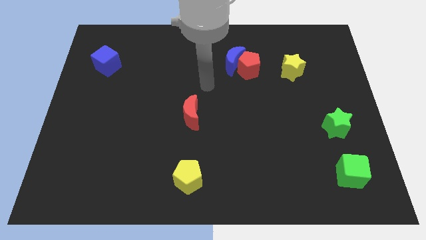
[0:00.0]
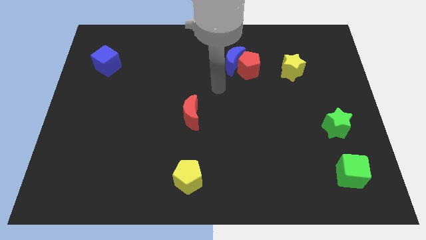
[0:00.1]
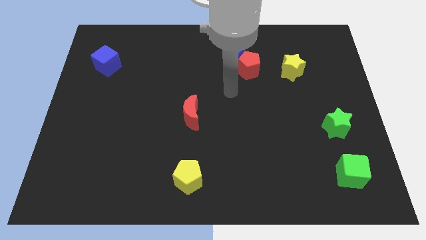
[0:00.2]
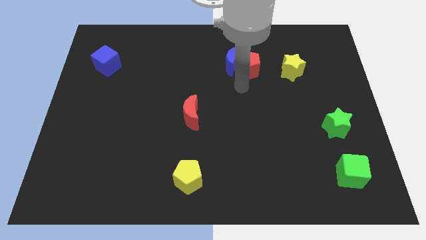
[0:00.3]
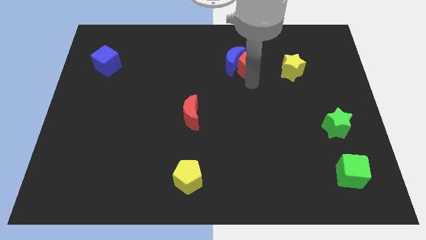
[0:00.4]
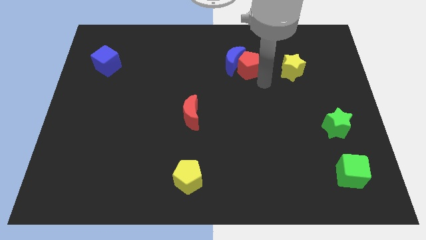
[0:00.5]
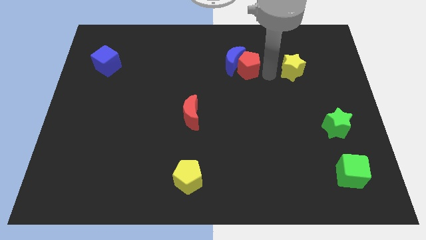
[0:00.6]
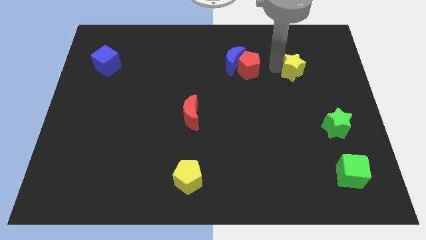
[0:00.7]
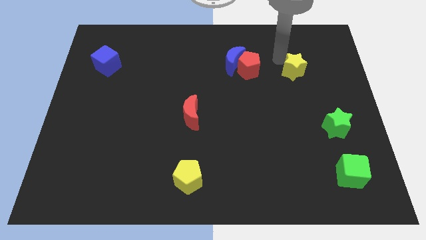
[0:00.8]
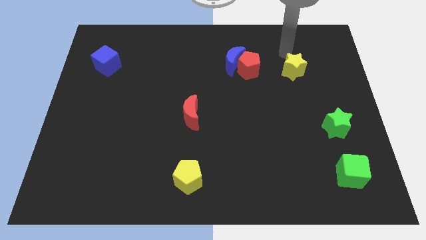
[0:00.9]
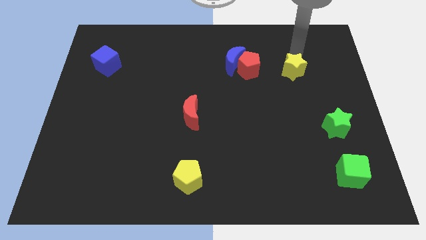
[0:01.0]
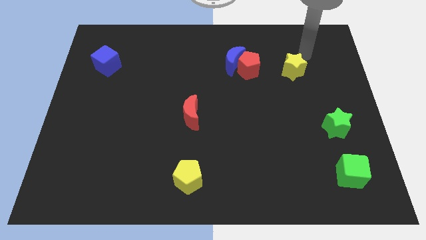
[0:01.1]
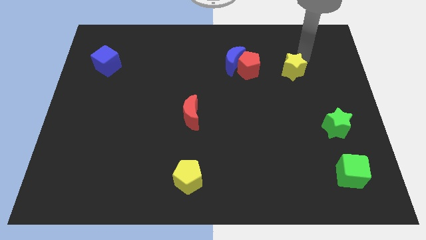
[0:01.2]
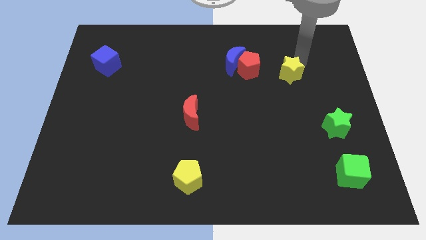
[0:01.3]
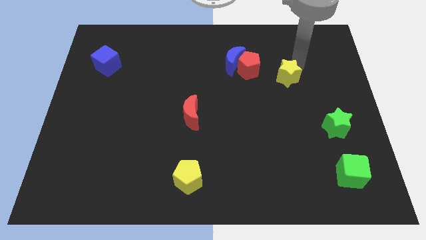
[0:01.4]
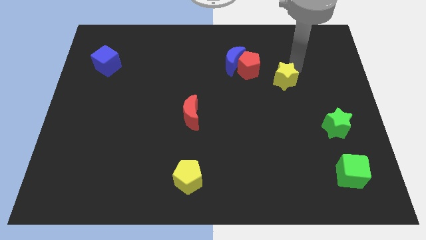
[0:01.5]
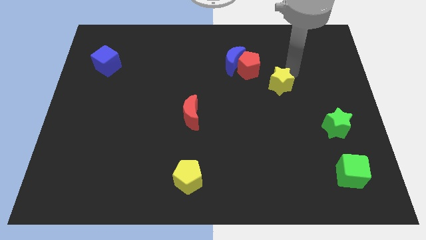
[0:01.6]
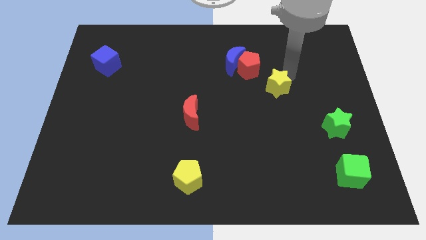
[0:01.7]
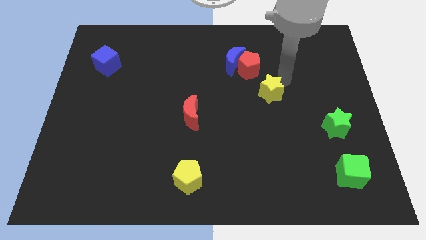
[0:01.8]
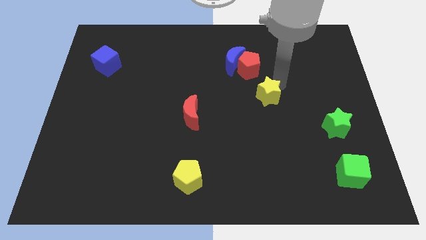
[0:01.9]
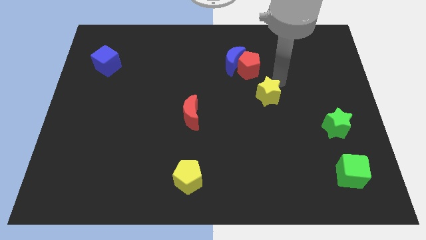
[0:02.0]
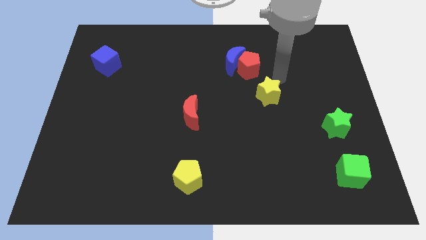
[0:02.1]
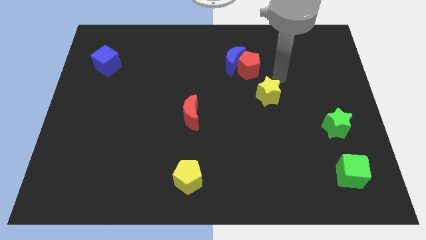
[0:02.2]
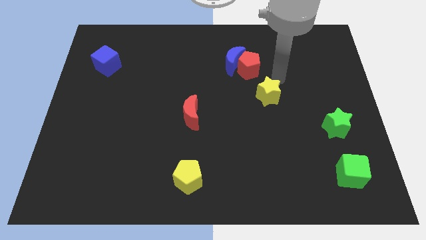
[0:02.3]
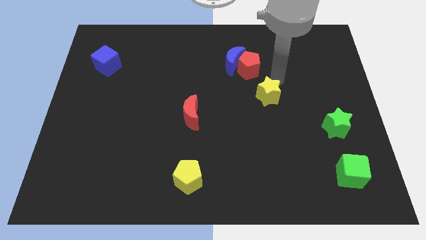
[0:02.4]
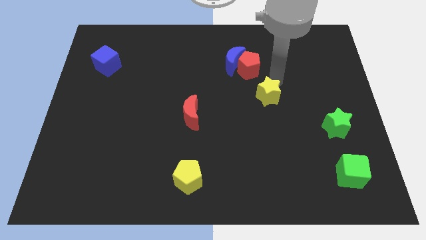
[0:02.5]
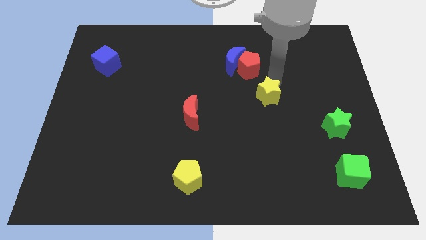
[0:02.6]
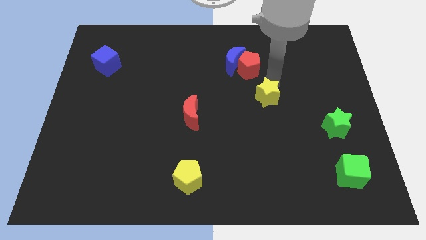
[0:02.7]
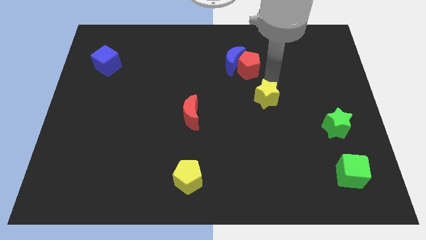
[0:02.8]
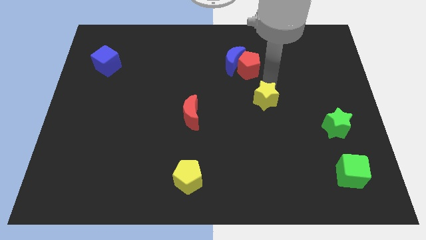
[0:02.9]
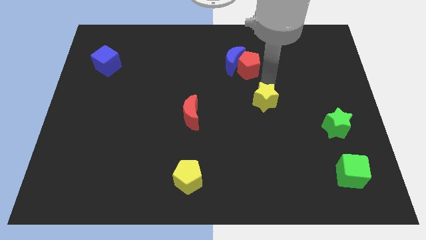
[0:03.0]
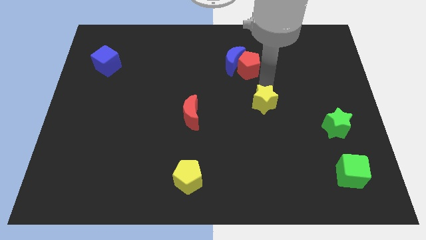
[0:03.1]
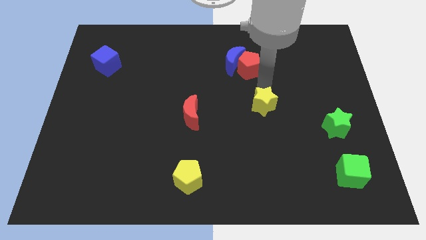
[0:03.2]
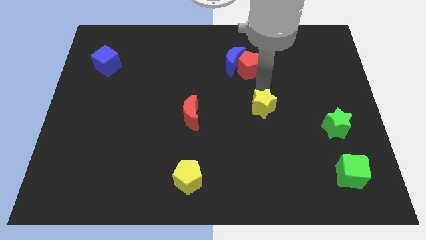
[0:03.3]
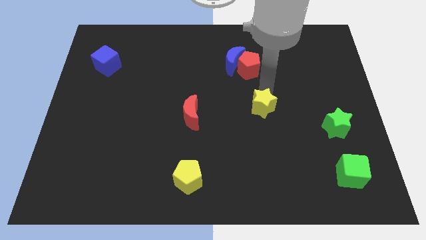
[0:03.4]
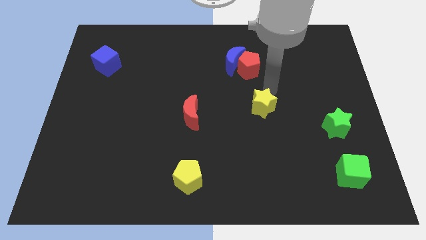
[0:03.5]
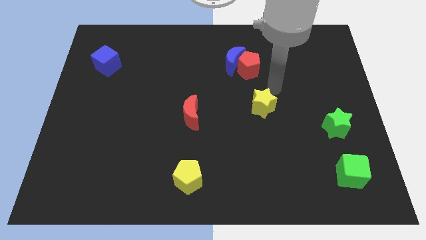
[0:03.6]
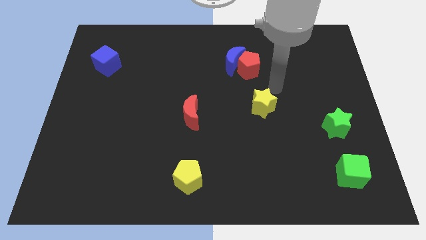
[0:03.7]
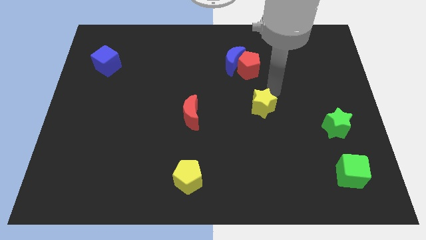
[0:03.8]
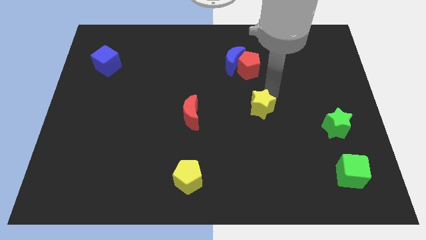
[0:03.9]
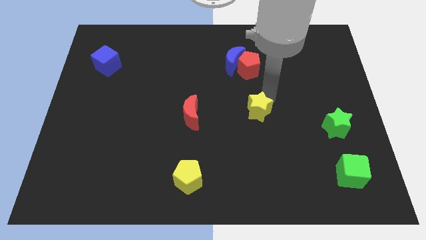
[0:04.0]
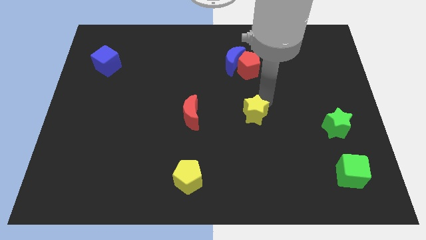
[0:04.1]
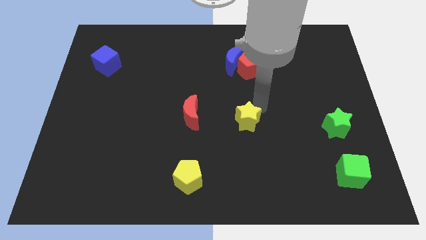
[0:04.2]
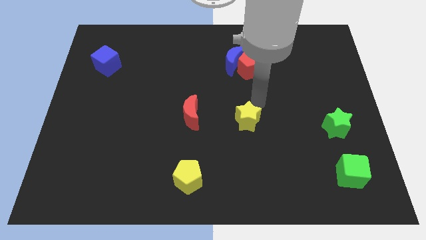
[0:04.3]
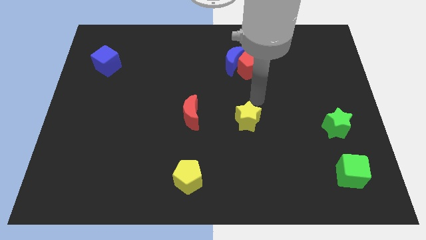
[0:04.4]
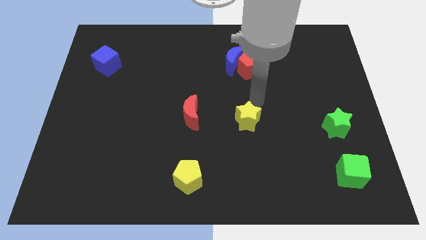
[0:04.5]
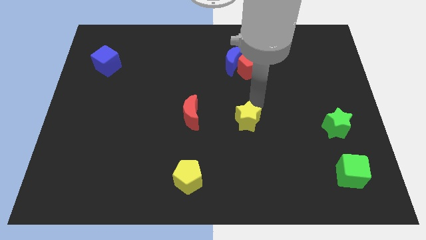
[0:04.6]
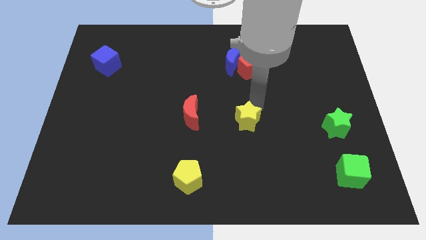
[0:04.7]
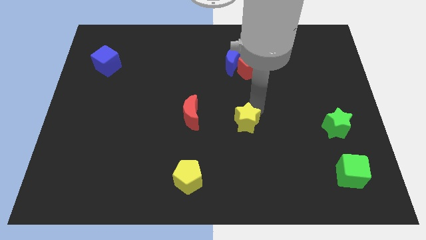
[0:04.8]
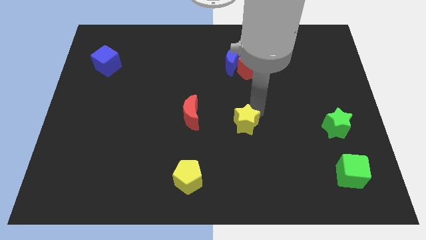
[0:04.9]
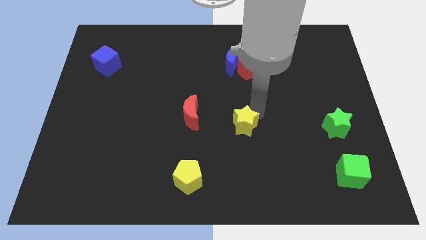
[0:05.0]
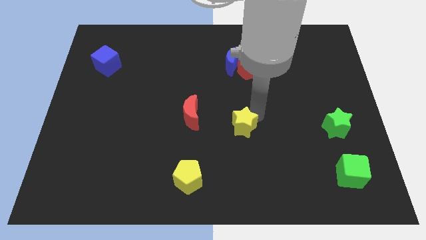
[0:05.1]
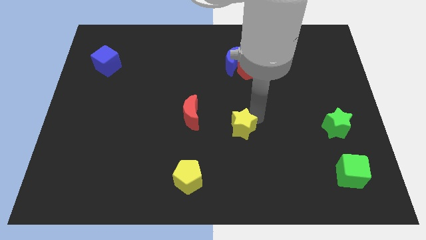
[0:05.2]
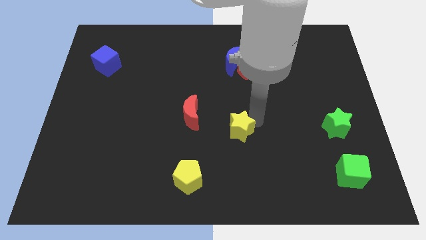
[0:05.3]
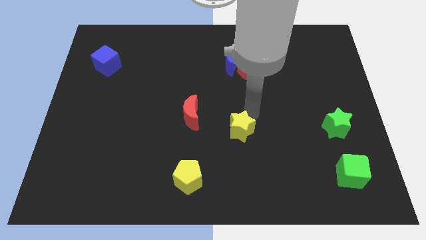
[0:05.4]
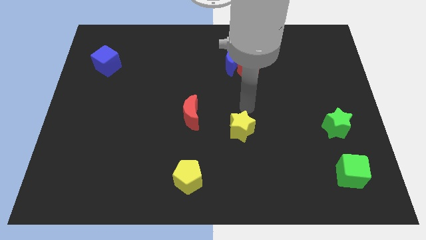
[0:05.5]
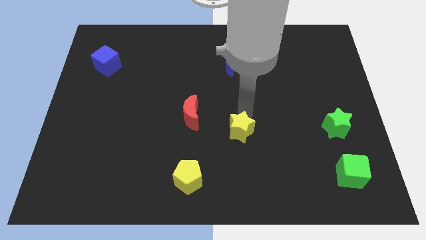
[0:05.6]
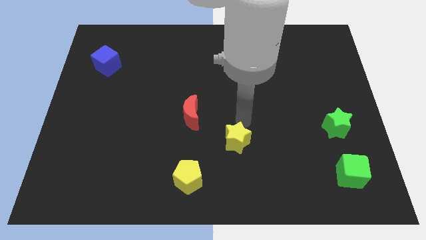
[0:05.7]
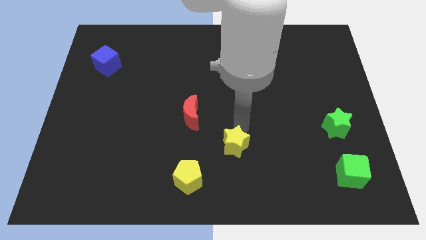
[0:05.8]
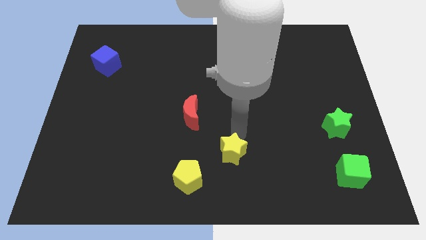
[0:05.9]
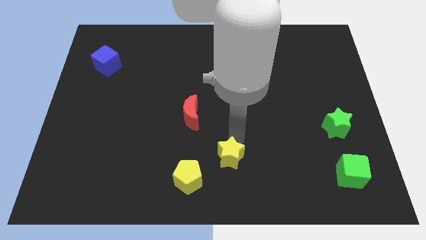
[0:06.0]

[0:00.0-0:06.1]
put the yellow star to the bottom

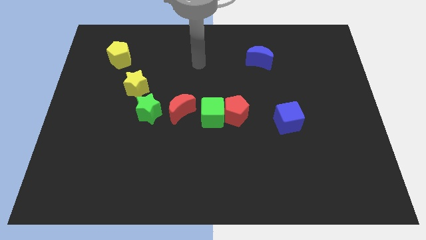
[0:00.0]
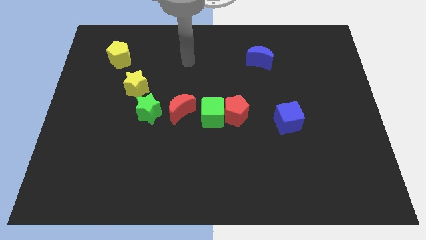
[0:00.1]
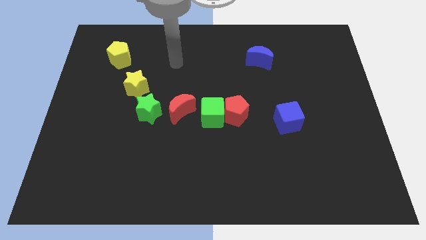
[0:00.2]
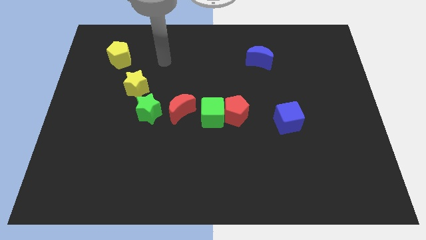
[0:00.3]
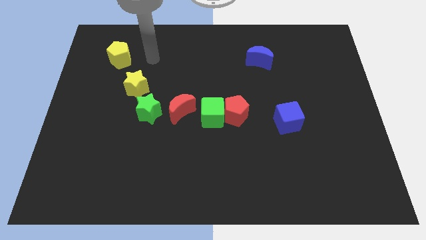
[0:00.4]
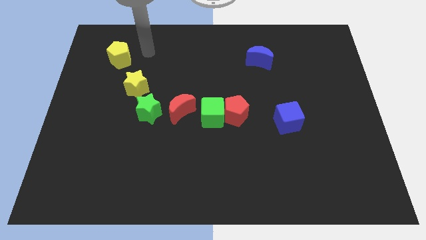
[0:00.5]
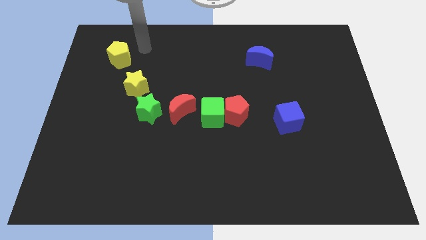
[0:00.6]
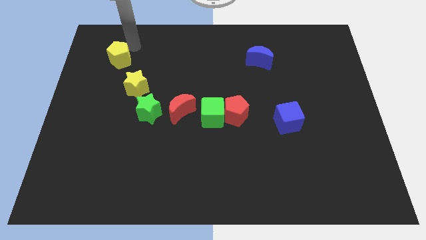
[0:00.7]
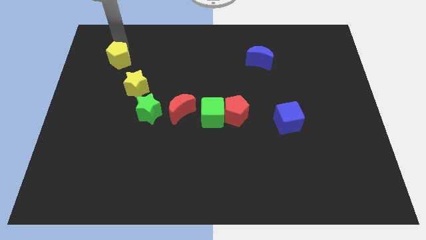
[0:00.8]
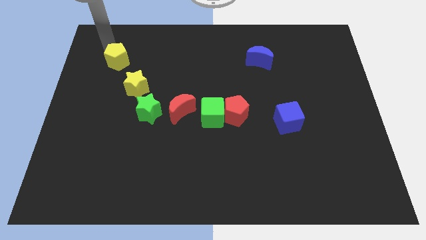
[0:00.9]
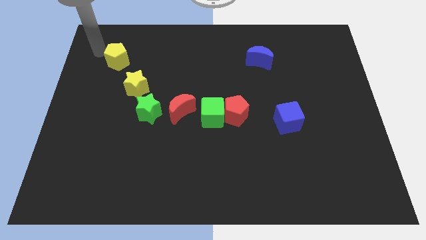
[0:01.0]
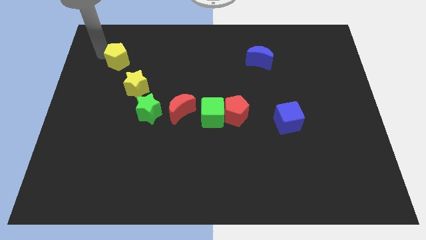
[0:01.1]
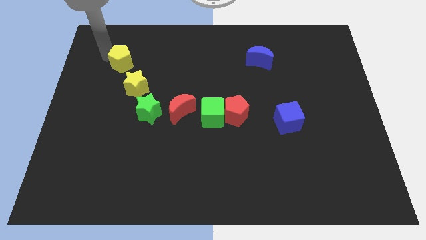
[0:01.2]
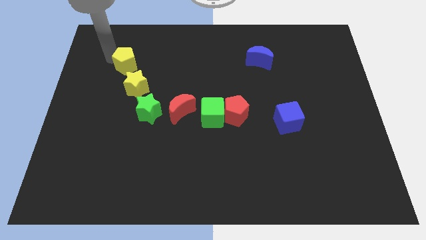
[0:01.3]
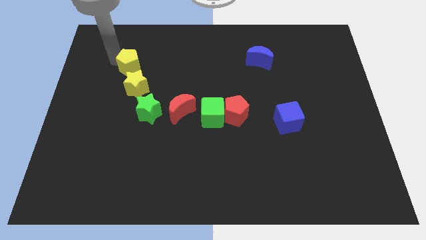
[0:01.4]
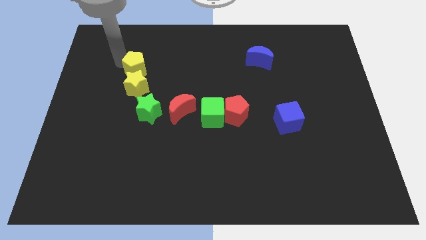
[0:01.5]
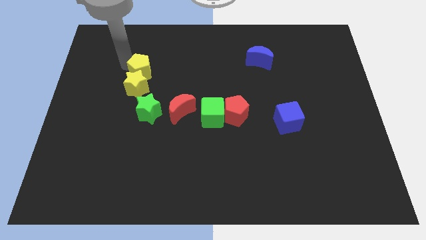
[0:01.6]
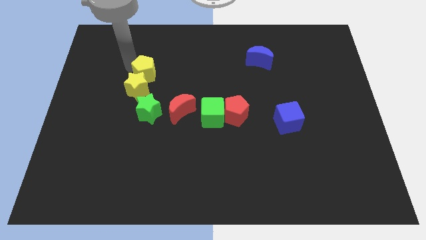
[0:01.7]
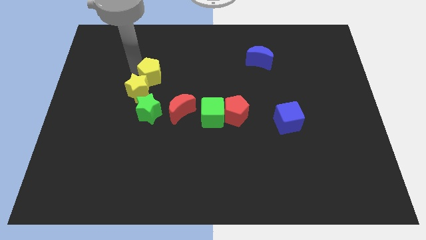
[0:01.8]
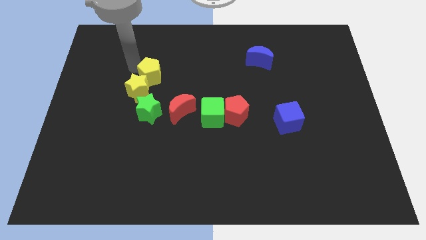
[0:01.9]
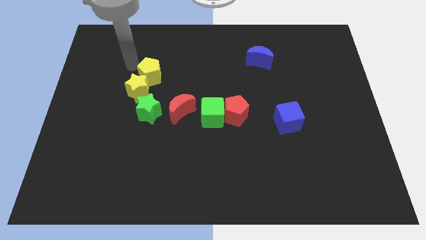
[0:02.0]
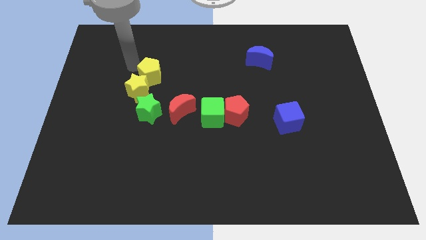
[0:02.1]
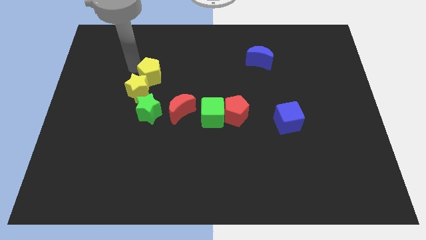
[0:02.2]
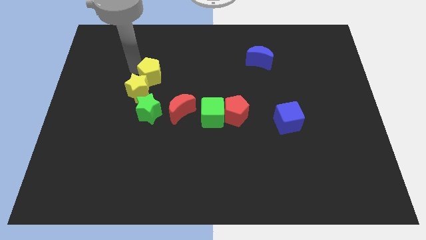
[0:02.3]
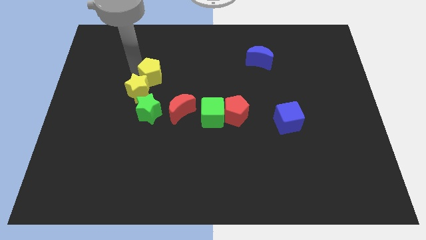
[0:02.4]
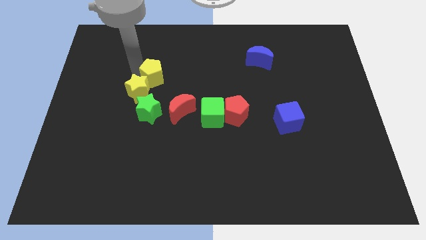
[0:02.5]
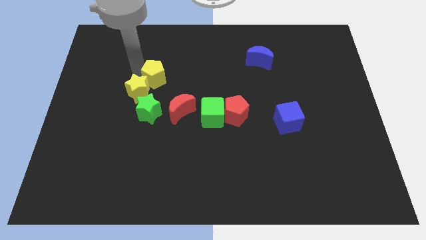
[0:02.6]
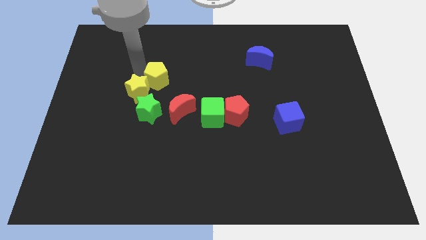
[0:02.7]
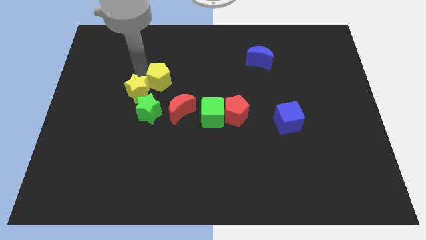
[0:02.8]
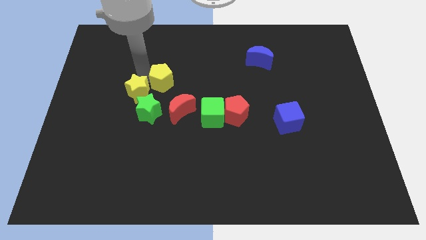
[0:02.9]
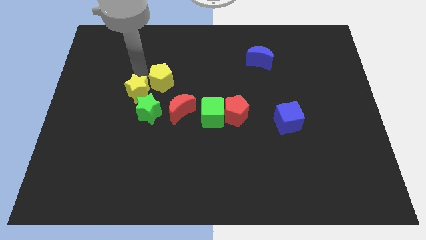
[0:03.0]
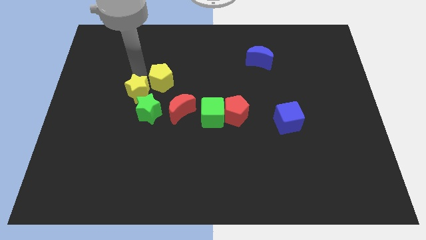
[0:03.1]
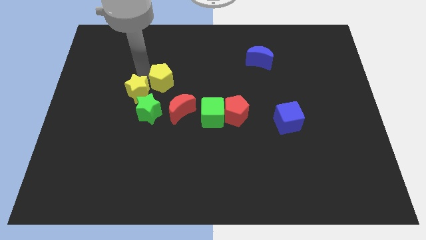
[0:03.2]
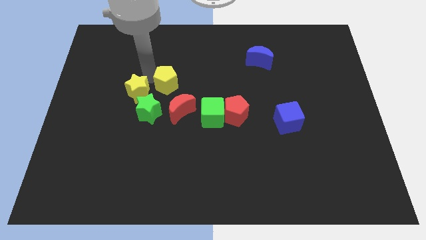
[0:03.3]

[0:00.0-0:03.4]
slide the yellow pentagon to the center of the board
